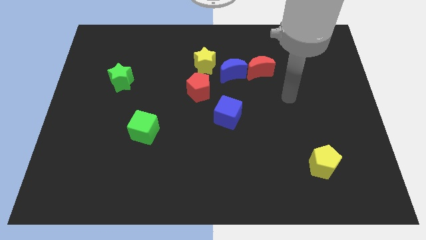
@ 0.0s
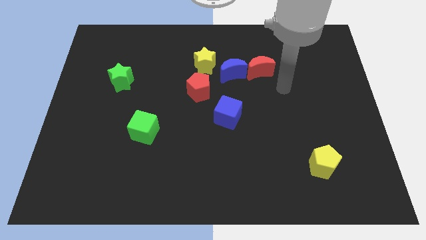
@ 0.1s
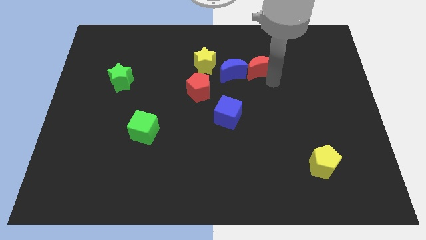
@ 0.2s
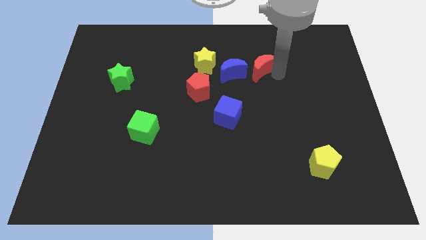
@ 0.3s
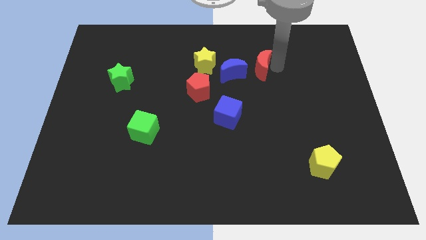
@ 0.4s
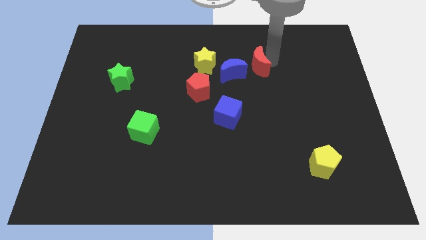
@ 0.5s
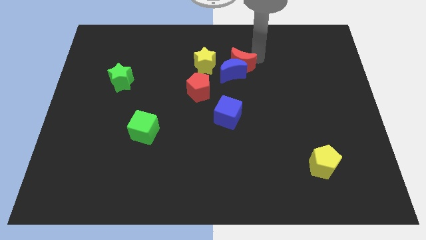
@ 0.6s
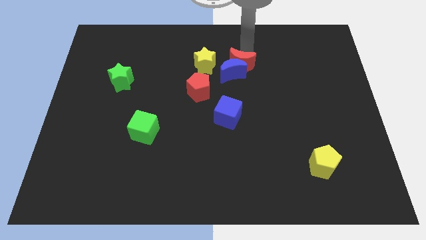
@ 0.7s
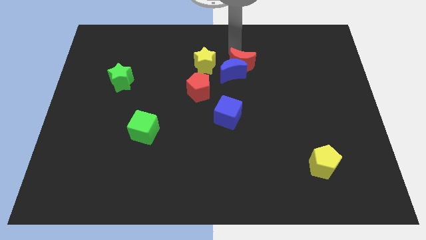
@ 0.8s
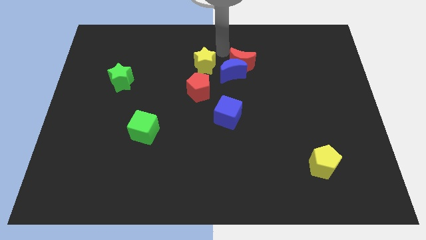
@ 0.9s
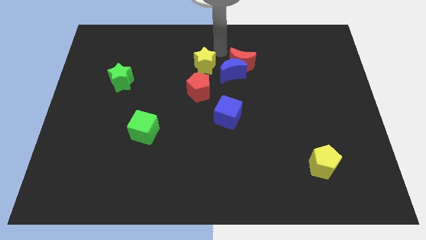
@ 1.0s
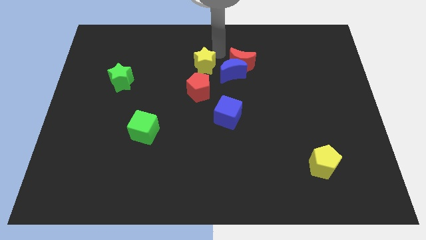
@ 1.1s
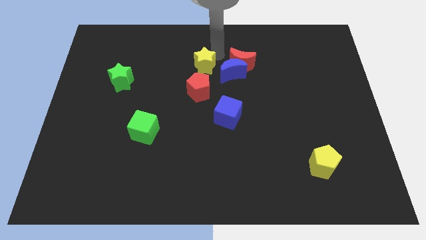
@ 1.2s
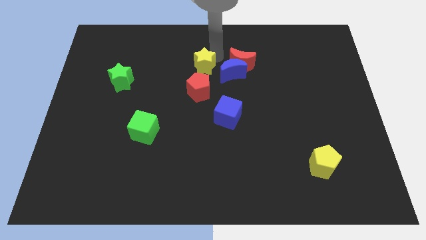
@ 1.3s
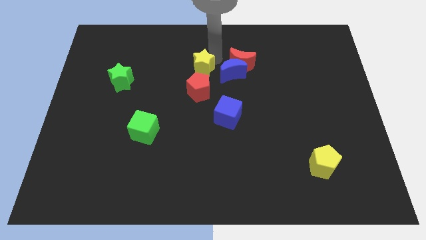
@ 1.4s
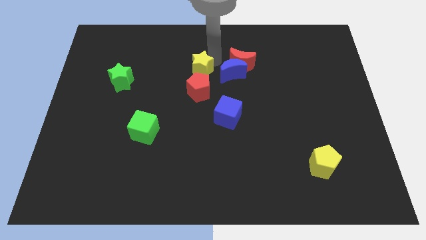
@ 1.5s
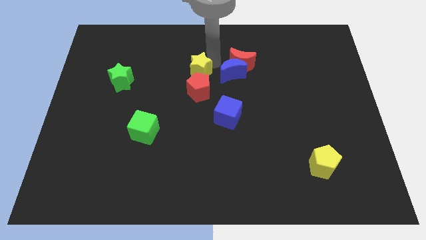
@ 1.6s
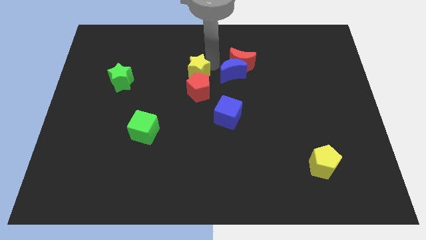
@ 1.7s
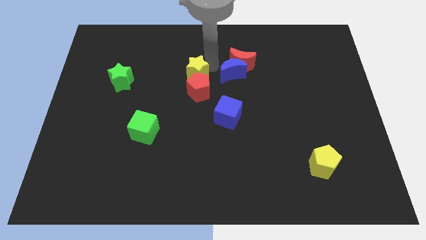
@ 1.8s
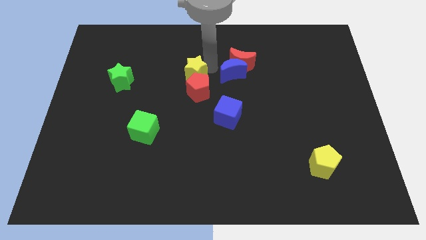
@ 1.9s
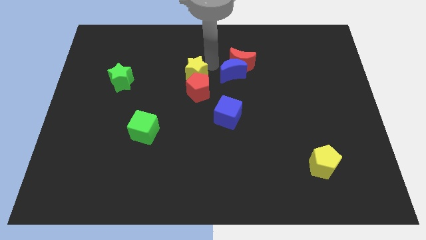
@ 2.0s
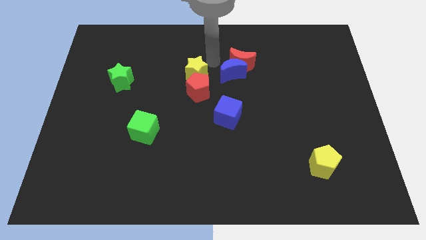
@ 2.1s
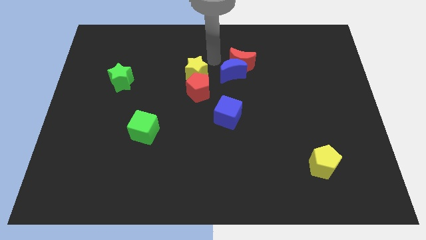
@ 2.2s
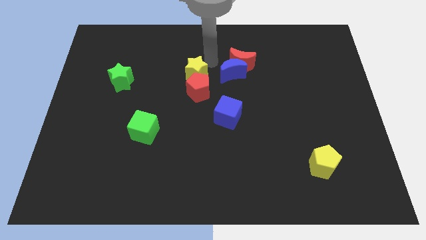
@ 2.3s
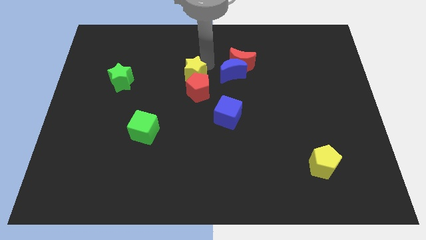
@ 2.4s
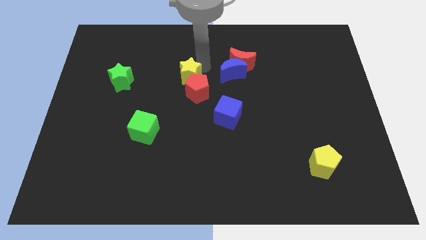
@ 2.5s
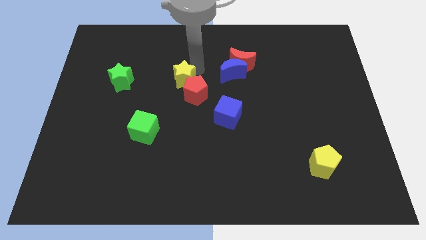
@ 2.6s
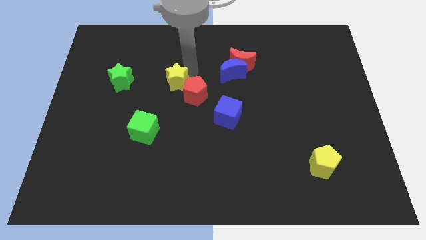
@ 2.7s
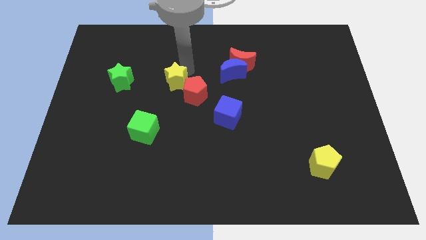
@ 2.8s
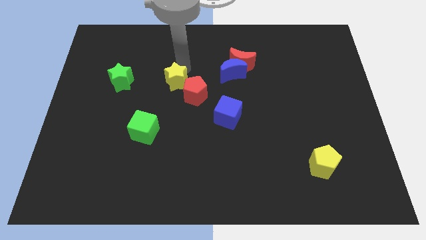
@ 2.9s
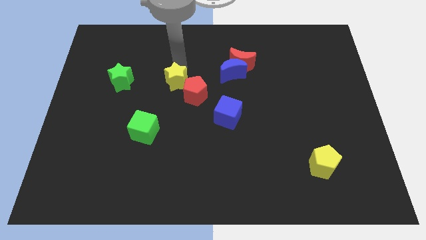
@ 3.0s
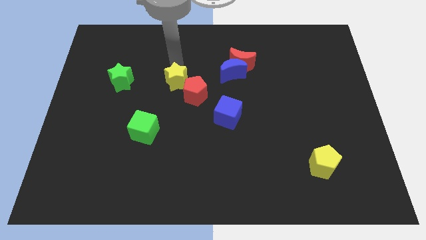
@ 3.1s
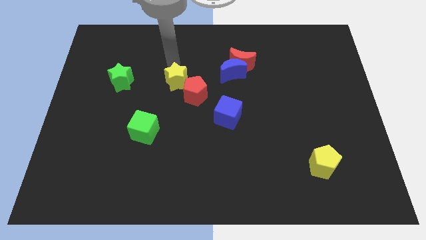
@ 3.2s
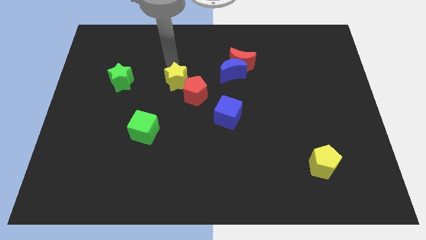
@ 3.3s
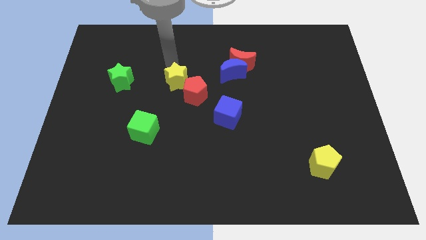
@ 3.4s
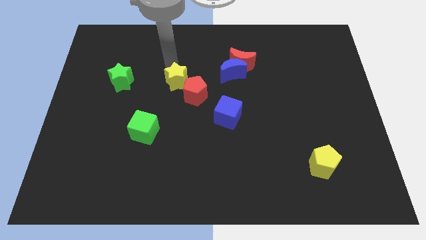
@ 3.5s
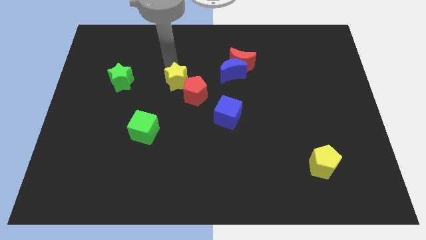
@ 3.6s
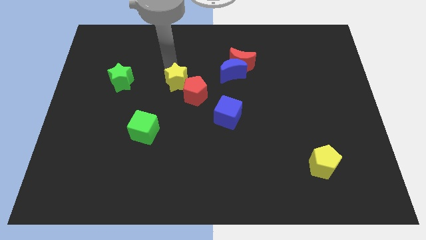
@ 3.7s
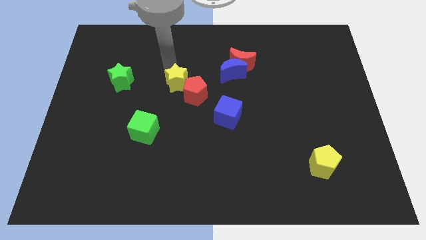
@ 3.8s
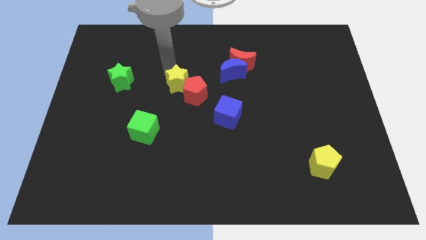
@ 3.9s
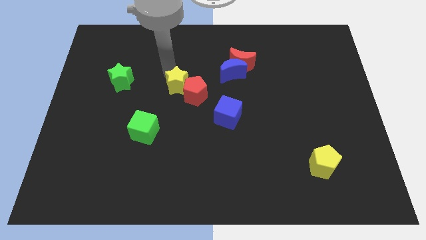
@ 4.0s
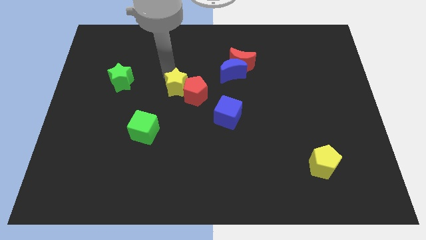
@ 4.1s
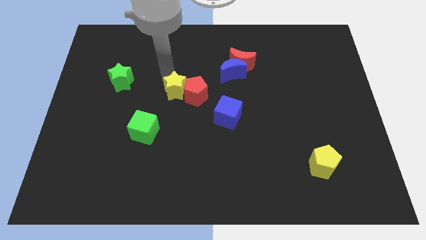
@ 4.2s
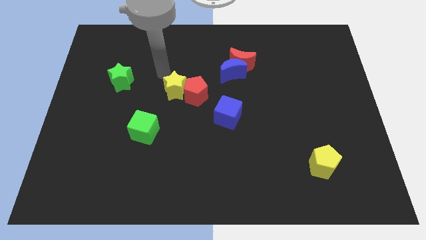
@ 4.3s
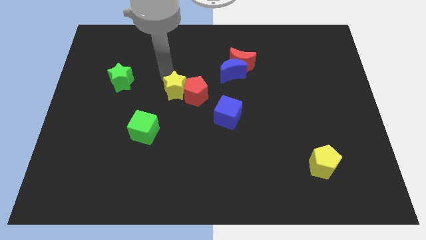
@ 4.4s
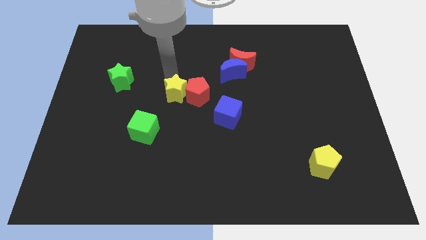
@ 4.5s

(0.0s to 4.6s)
push the yellow star downwards a bit

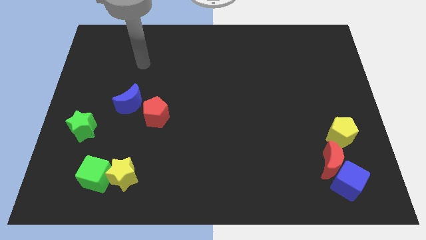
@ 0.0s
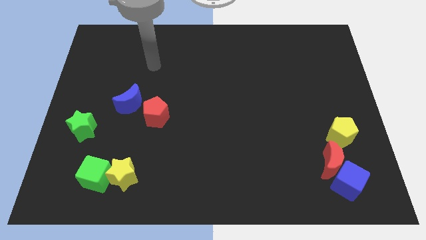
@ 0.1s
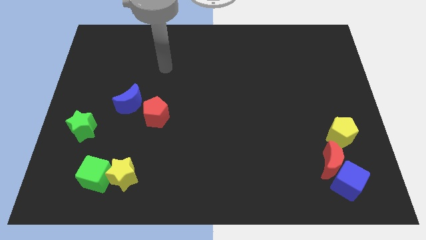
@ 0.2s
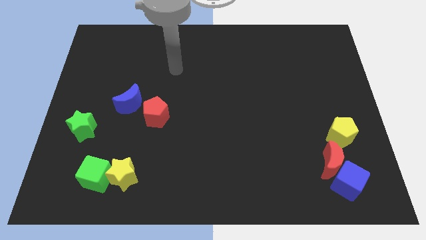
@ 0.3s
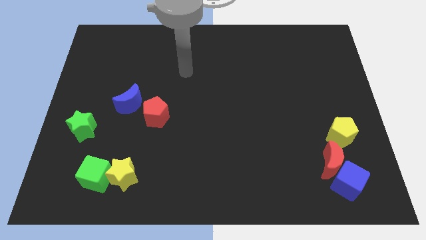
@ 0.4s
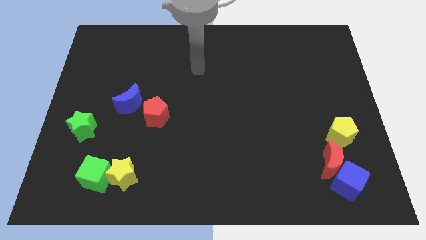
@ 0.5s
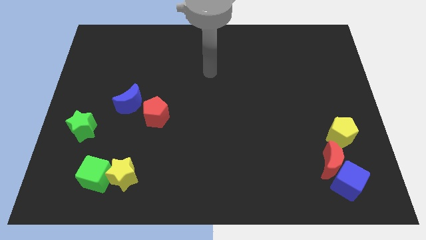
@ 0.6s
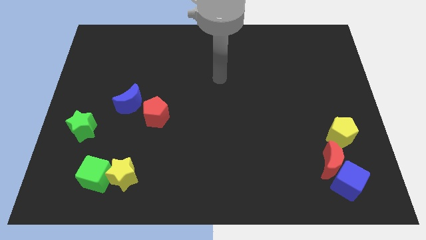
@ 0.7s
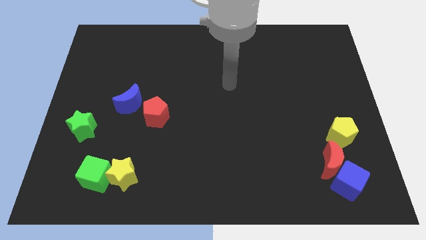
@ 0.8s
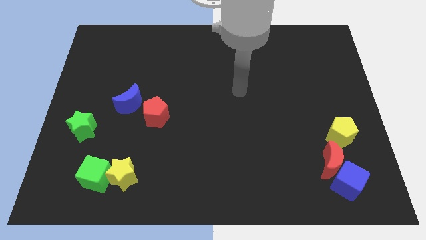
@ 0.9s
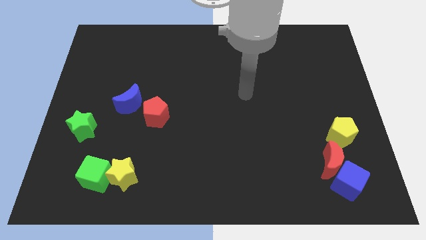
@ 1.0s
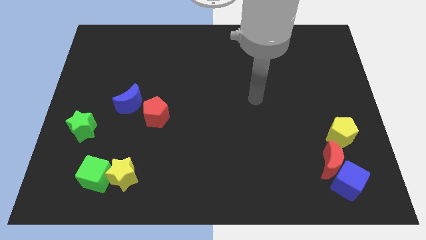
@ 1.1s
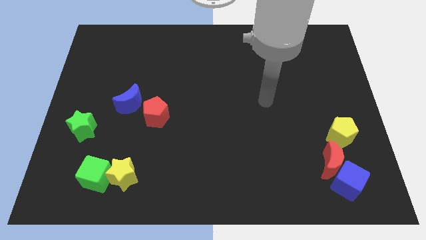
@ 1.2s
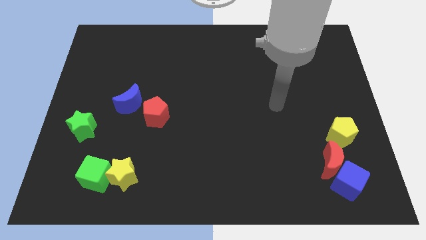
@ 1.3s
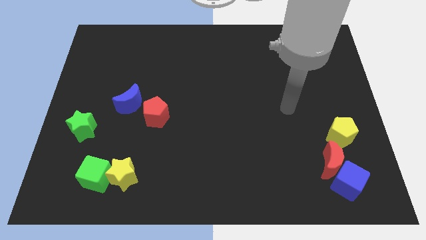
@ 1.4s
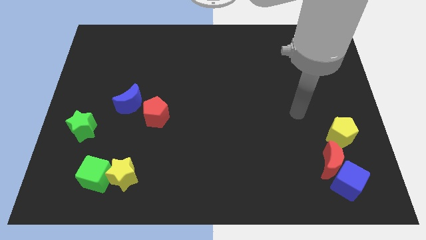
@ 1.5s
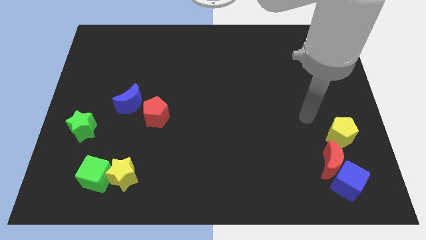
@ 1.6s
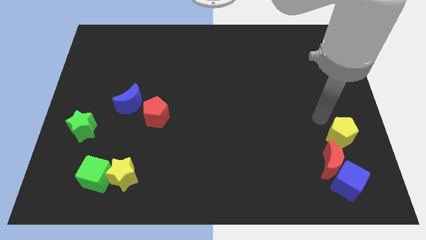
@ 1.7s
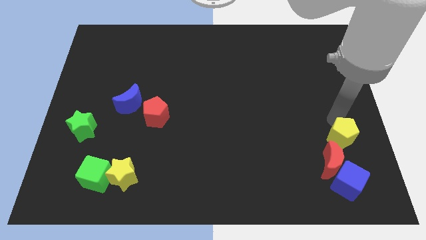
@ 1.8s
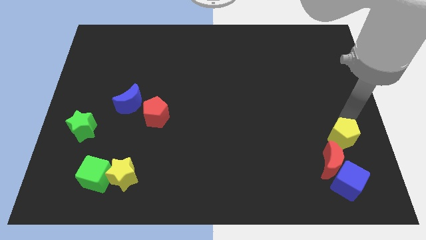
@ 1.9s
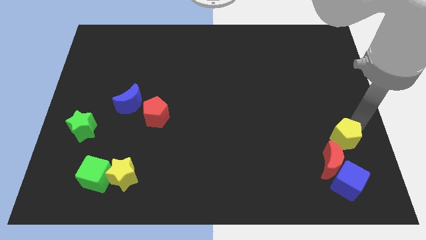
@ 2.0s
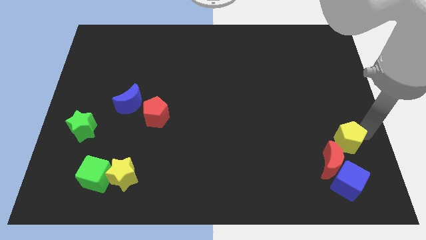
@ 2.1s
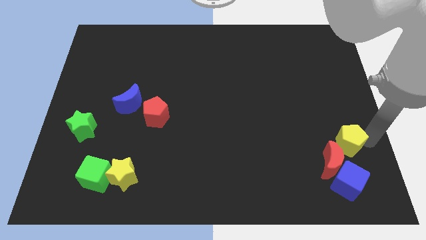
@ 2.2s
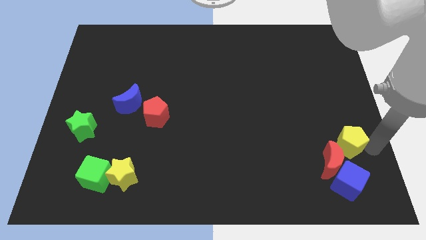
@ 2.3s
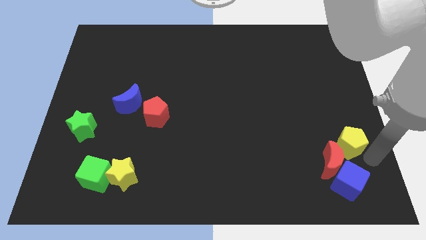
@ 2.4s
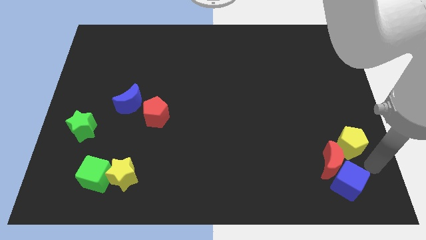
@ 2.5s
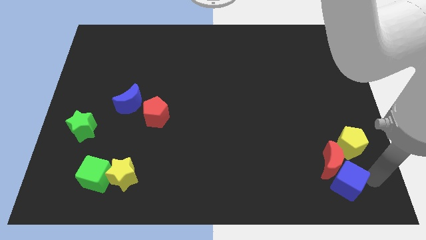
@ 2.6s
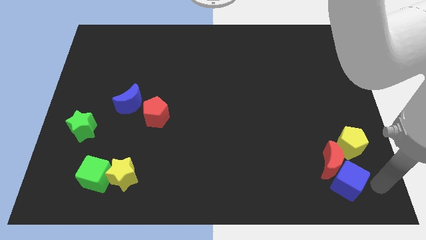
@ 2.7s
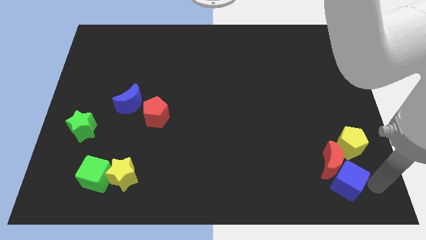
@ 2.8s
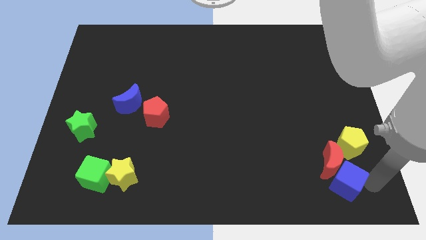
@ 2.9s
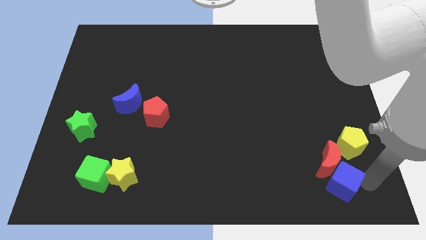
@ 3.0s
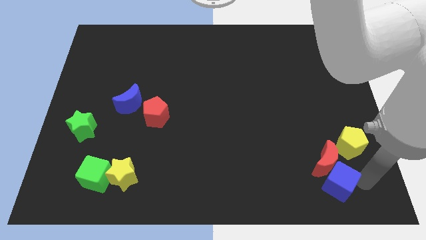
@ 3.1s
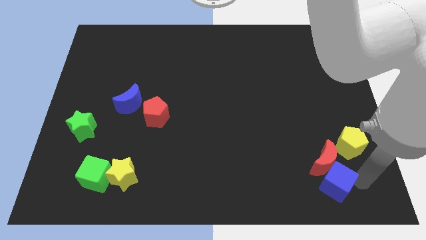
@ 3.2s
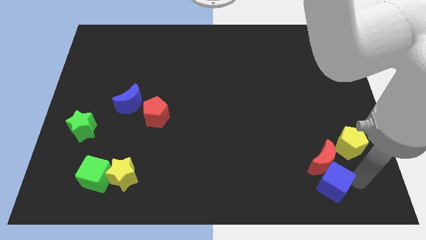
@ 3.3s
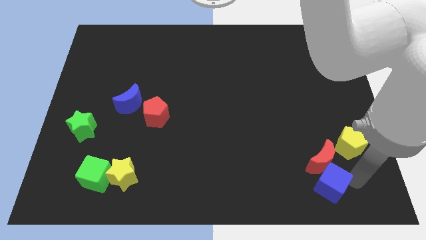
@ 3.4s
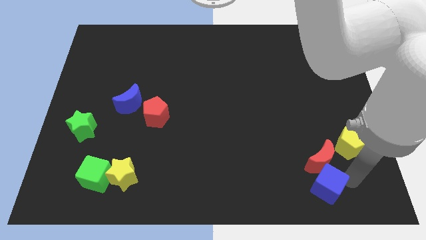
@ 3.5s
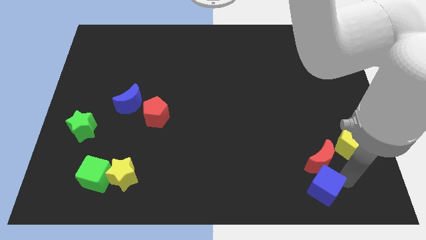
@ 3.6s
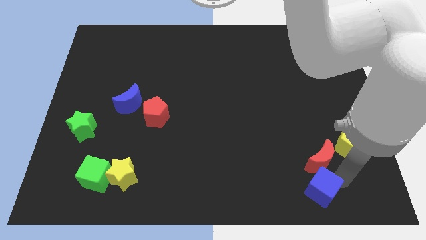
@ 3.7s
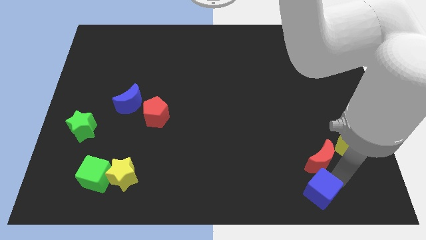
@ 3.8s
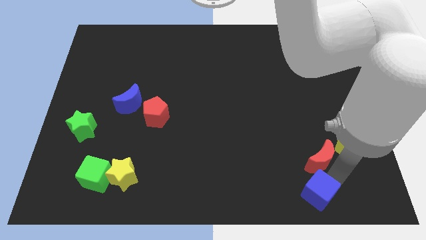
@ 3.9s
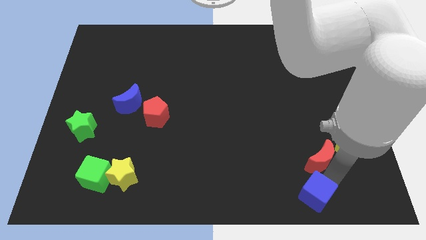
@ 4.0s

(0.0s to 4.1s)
slightly move the blue cube to the left
